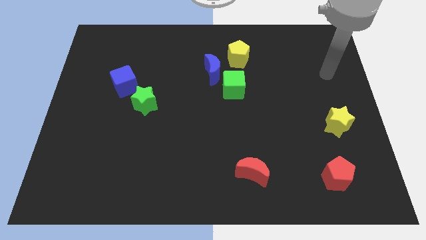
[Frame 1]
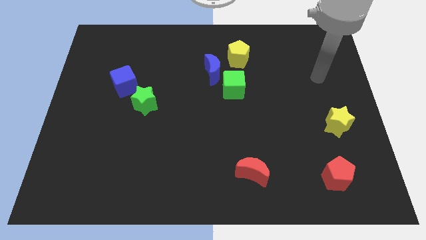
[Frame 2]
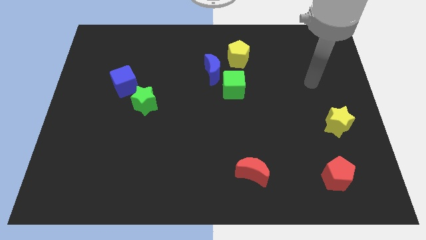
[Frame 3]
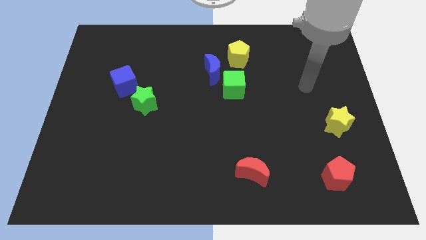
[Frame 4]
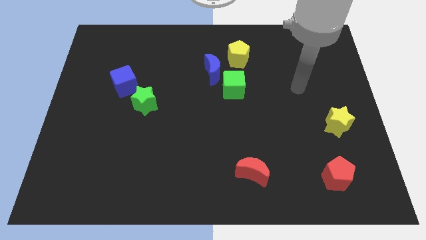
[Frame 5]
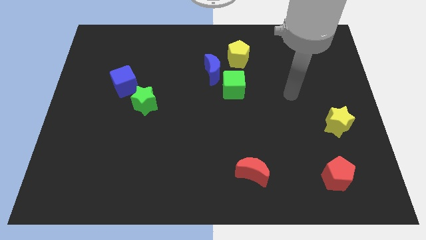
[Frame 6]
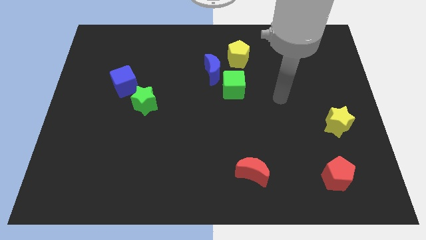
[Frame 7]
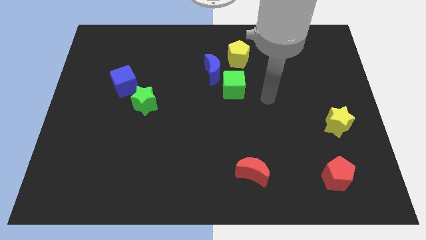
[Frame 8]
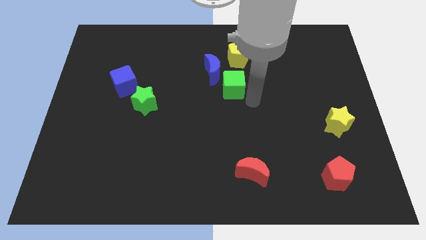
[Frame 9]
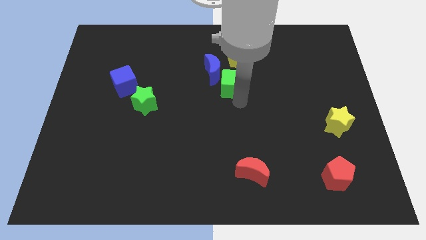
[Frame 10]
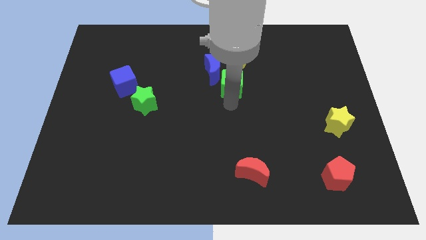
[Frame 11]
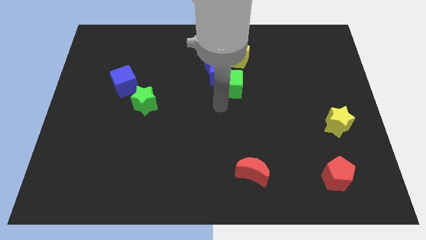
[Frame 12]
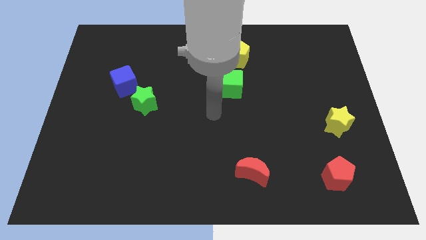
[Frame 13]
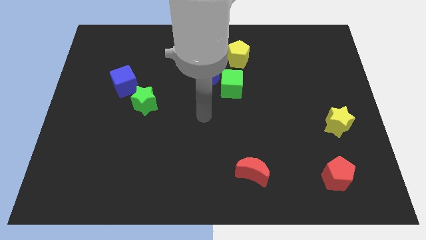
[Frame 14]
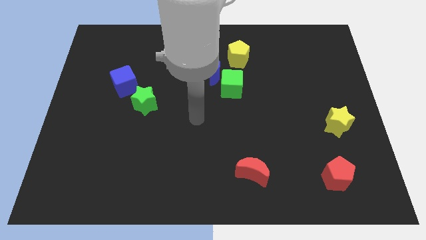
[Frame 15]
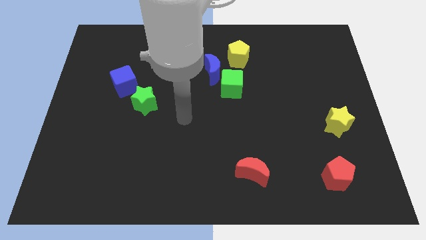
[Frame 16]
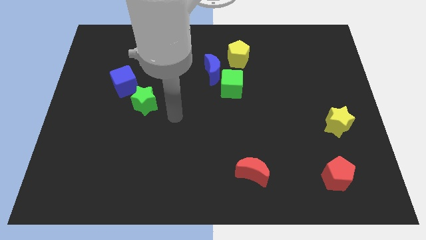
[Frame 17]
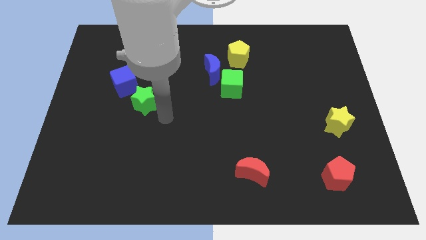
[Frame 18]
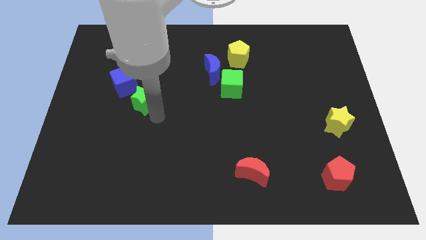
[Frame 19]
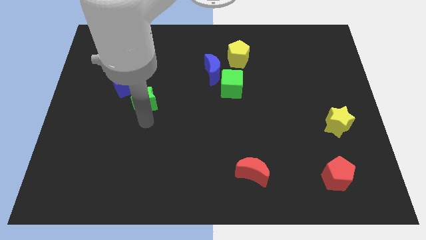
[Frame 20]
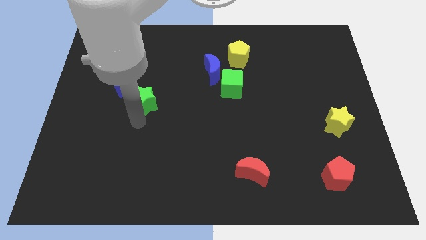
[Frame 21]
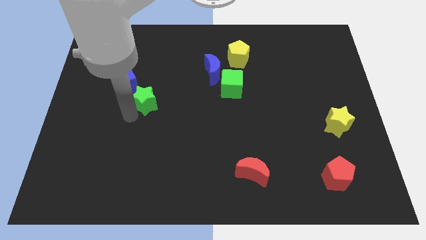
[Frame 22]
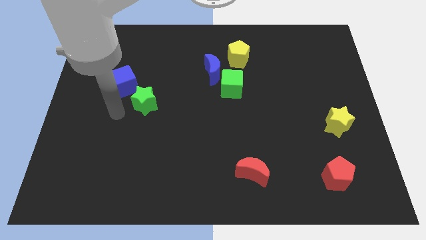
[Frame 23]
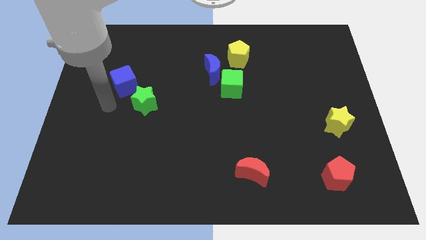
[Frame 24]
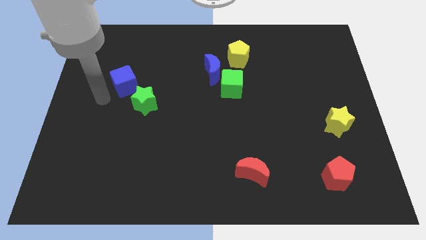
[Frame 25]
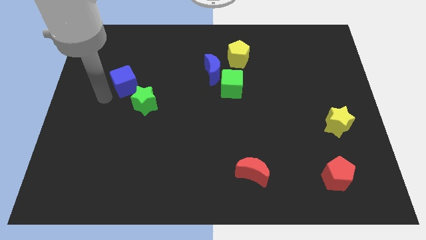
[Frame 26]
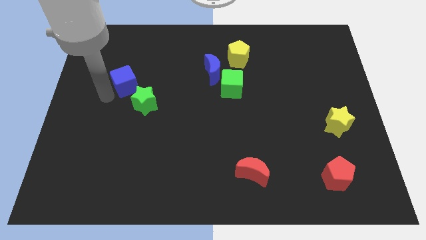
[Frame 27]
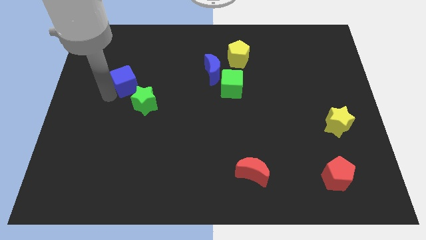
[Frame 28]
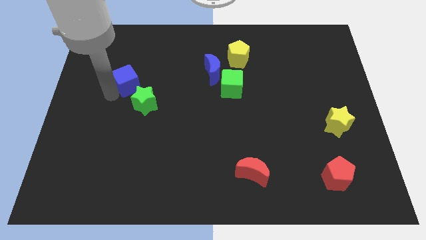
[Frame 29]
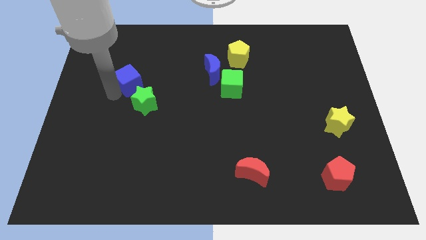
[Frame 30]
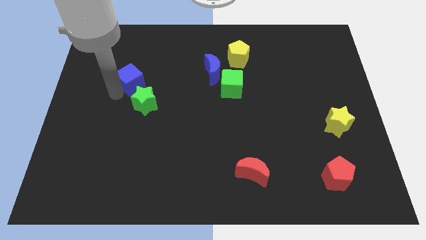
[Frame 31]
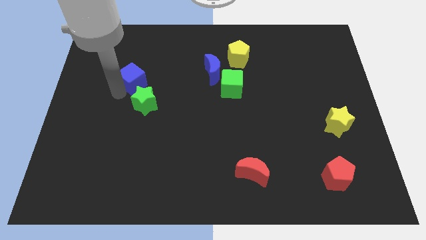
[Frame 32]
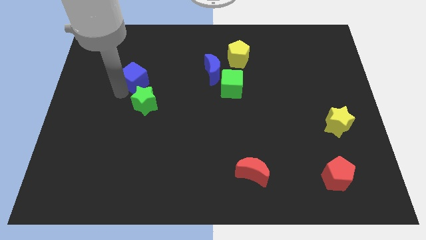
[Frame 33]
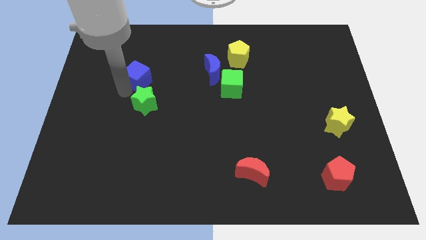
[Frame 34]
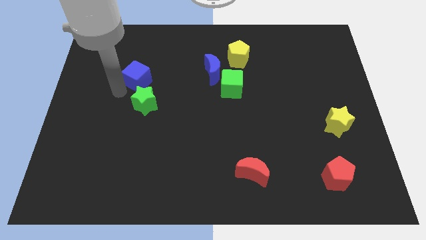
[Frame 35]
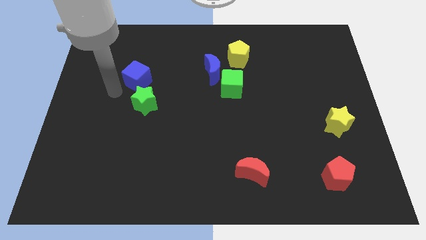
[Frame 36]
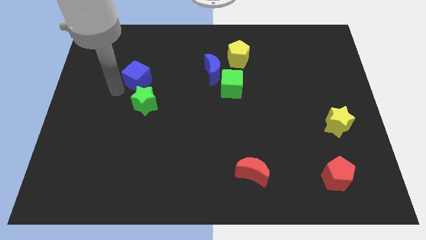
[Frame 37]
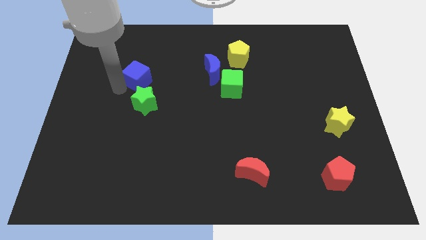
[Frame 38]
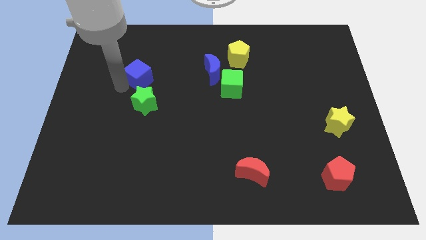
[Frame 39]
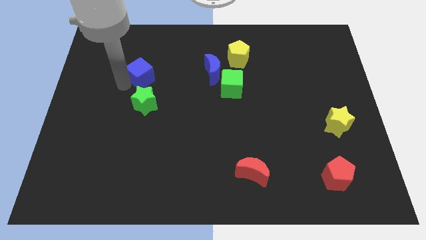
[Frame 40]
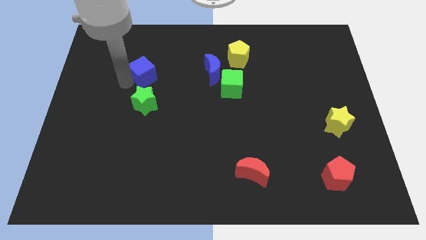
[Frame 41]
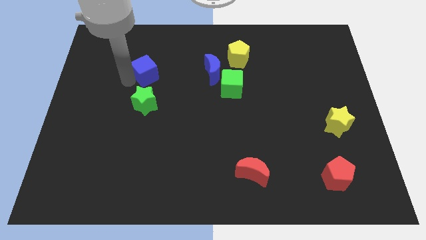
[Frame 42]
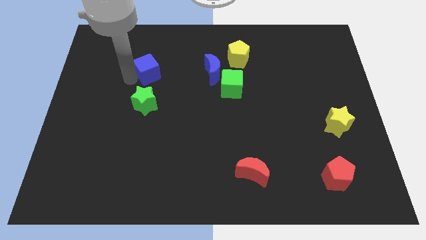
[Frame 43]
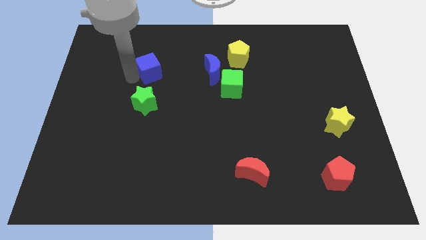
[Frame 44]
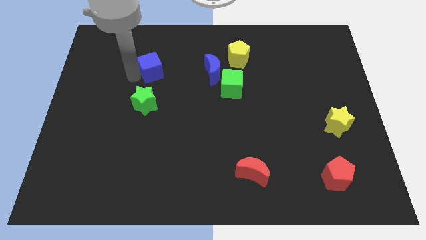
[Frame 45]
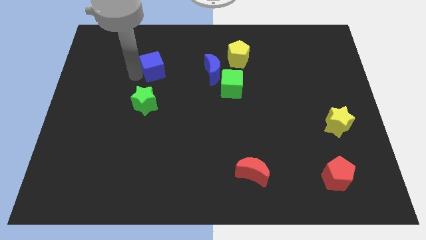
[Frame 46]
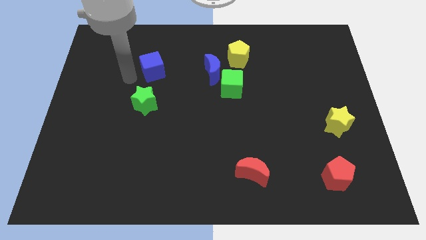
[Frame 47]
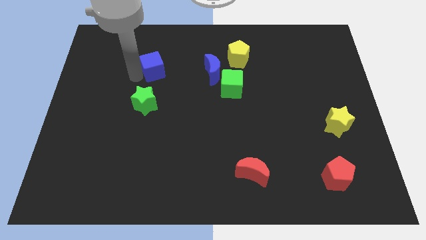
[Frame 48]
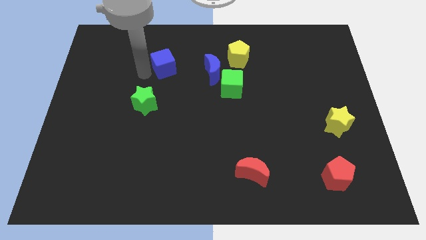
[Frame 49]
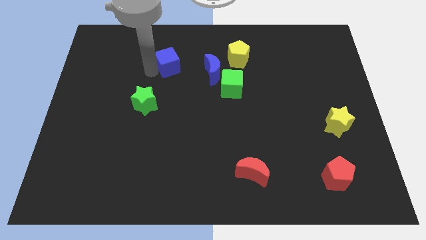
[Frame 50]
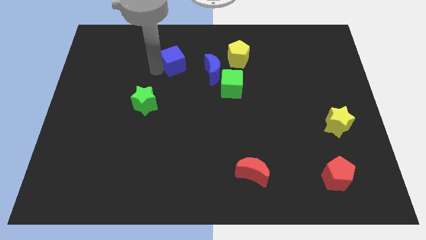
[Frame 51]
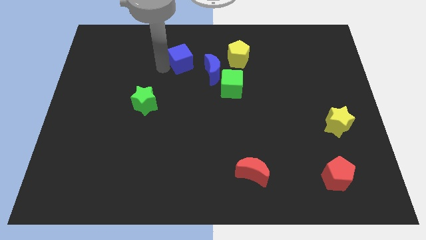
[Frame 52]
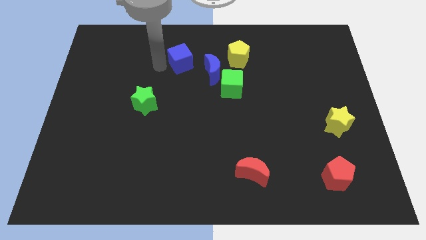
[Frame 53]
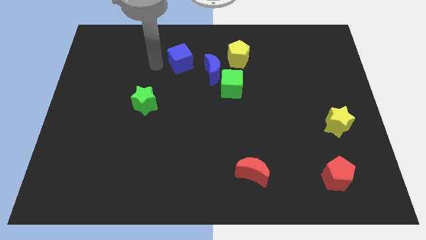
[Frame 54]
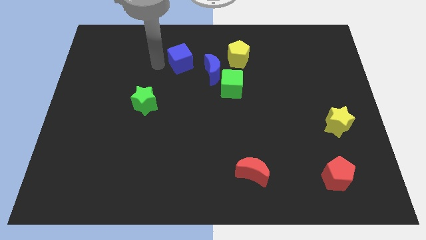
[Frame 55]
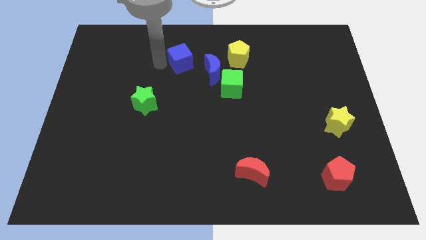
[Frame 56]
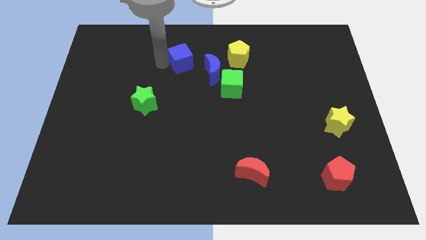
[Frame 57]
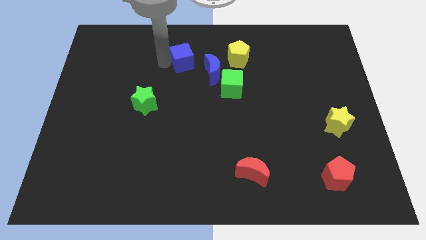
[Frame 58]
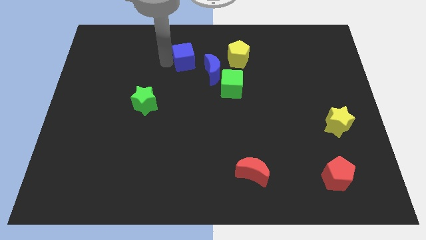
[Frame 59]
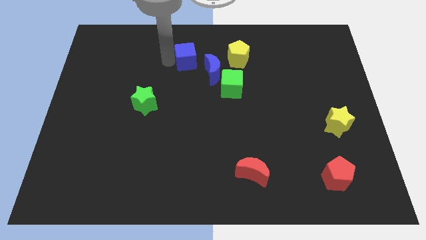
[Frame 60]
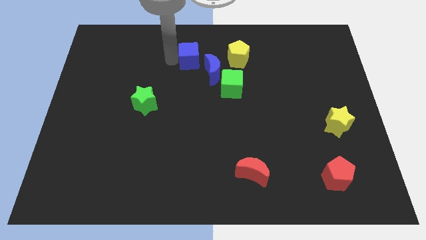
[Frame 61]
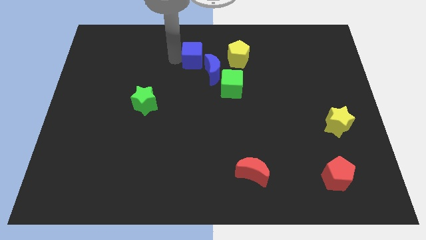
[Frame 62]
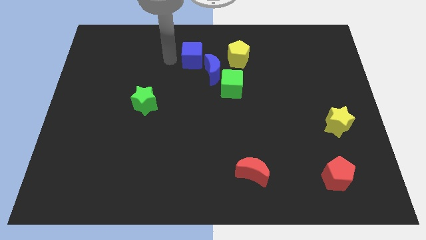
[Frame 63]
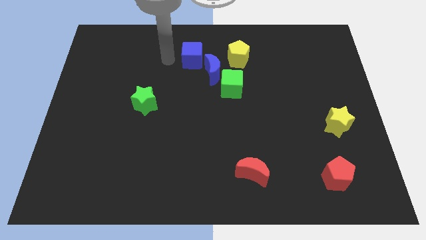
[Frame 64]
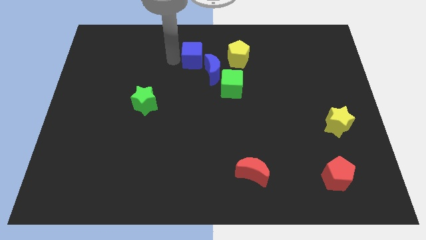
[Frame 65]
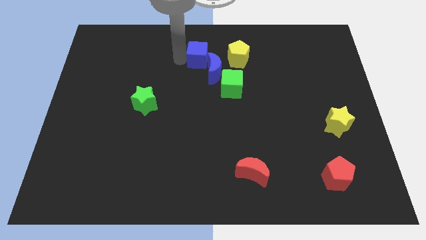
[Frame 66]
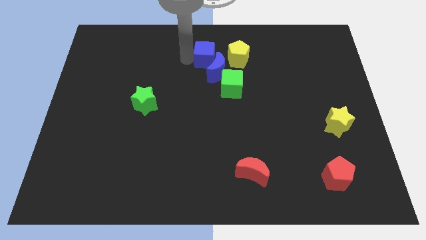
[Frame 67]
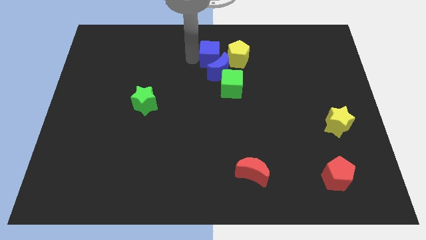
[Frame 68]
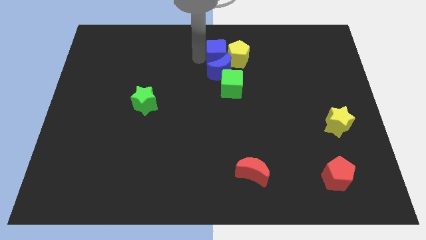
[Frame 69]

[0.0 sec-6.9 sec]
put the blue cube towards the yellow pentagon

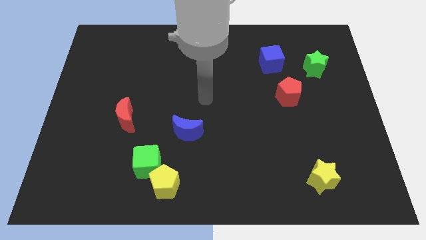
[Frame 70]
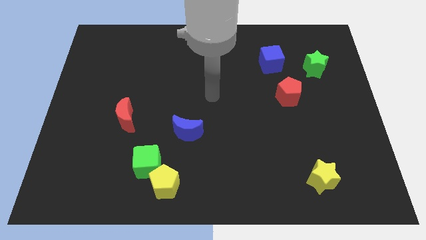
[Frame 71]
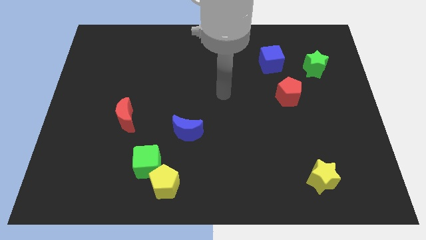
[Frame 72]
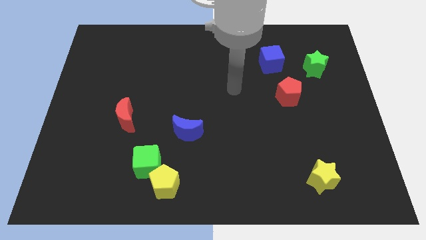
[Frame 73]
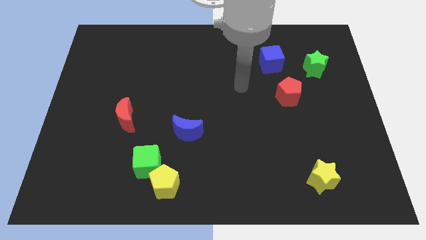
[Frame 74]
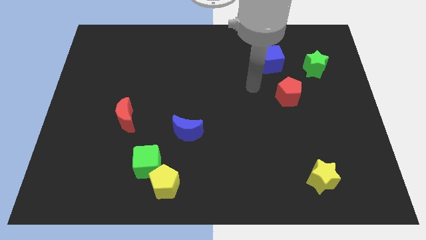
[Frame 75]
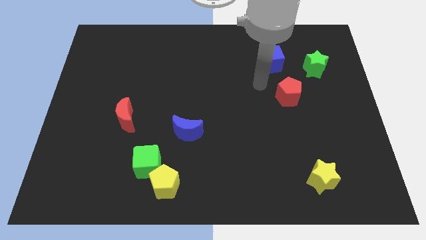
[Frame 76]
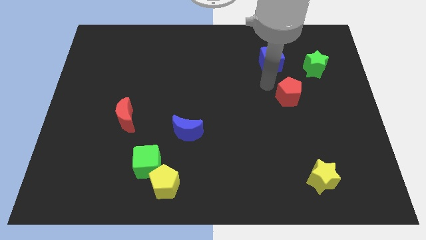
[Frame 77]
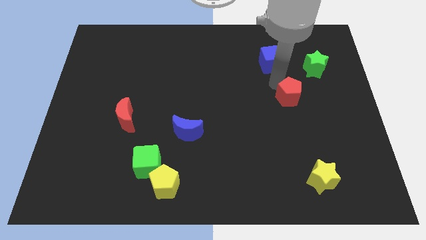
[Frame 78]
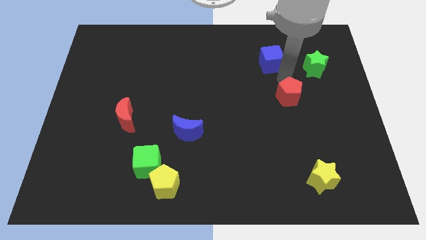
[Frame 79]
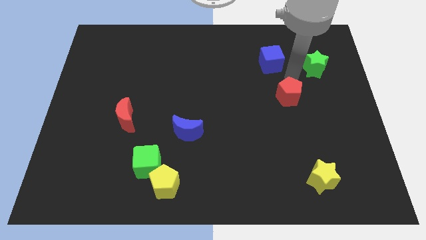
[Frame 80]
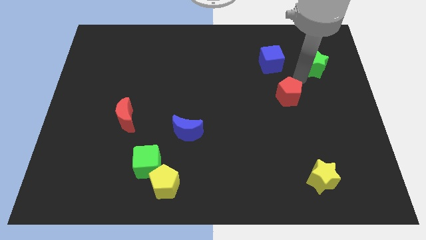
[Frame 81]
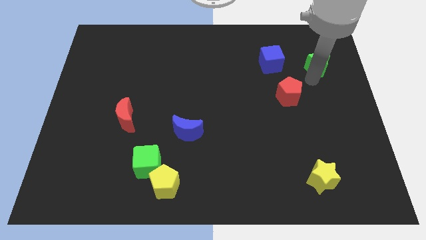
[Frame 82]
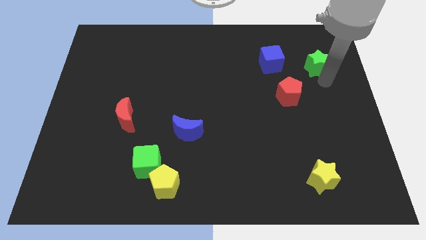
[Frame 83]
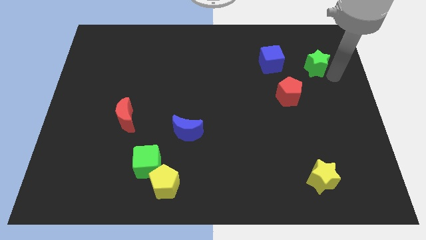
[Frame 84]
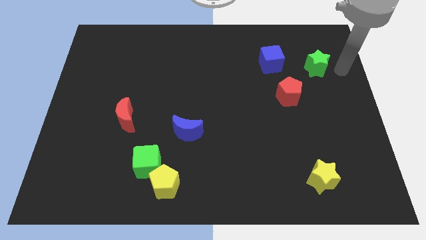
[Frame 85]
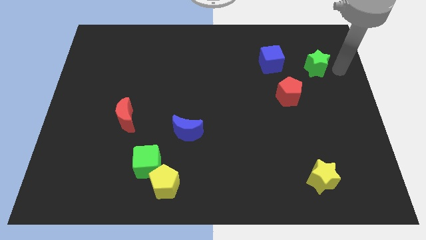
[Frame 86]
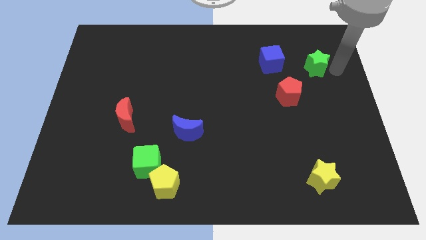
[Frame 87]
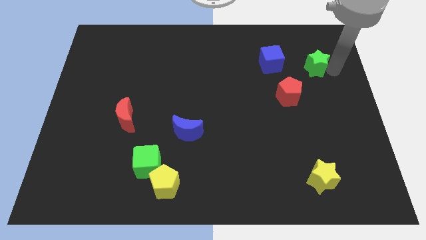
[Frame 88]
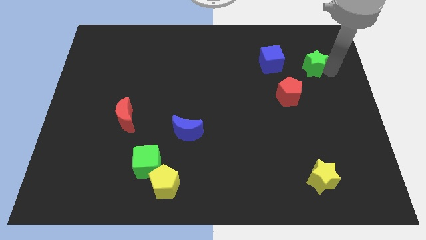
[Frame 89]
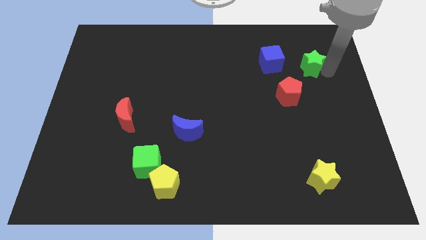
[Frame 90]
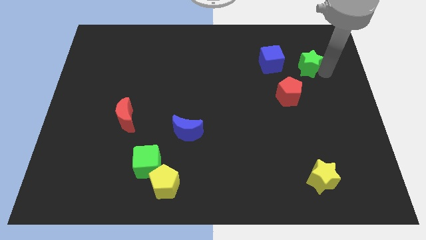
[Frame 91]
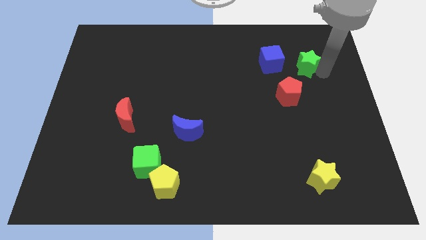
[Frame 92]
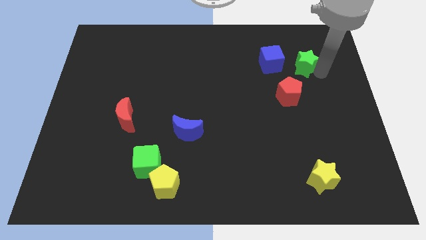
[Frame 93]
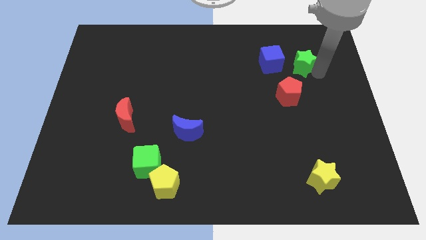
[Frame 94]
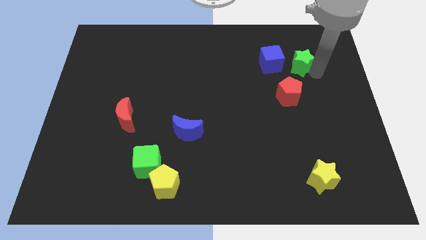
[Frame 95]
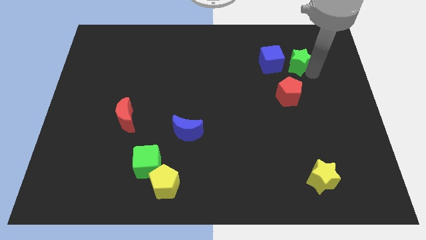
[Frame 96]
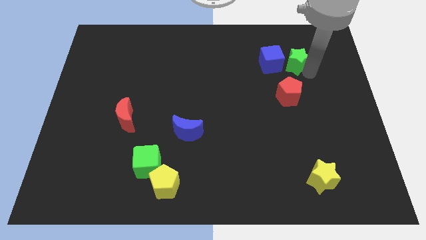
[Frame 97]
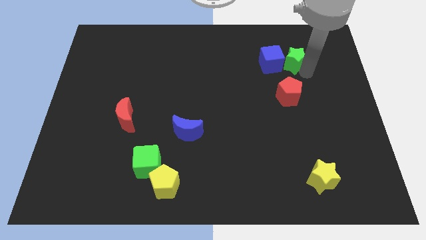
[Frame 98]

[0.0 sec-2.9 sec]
move the green star to the blue cube
